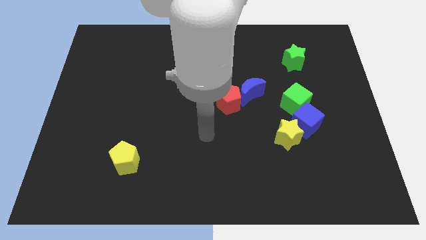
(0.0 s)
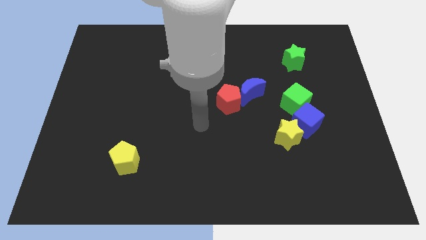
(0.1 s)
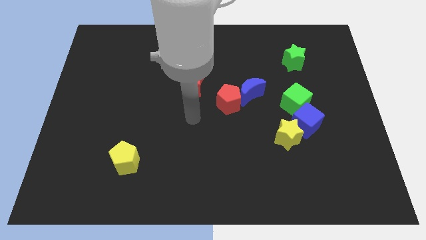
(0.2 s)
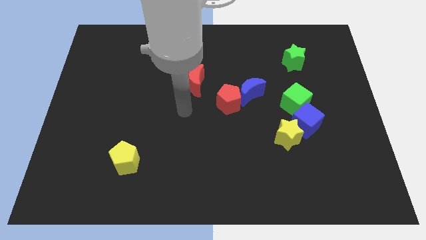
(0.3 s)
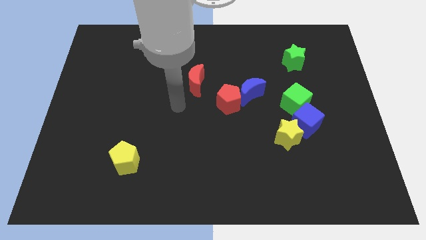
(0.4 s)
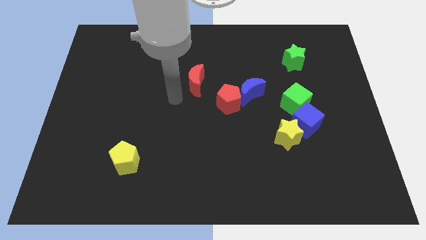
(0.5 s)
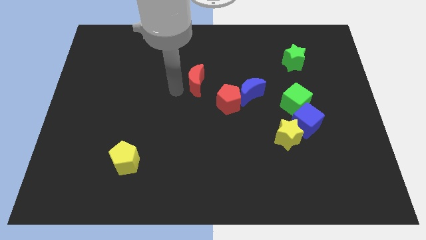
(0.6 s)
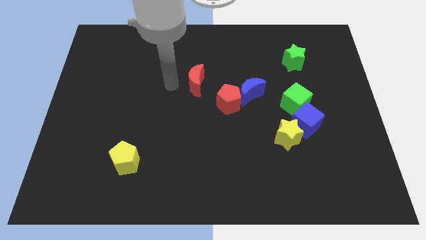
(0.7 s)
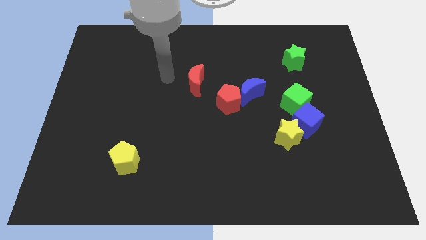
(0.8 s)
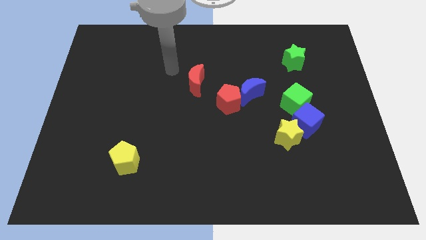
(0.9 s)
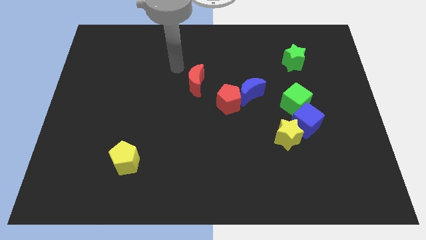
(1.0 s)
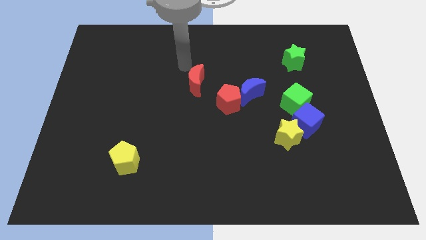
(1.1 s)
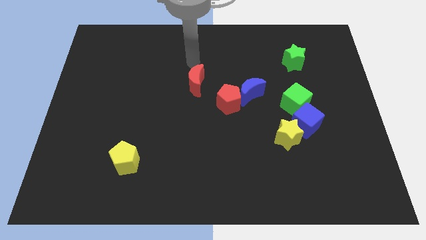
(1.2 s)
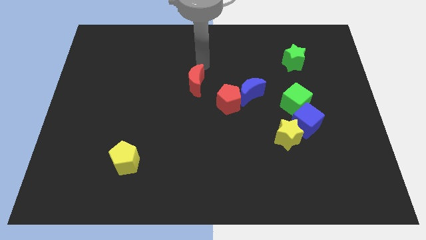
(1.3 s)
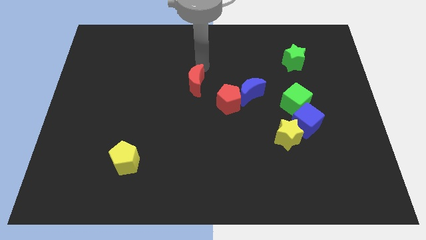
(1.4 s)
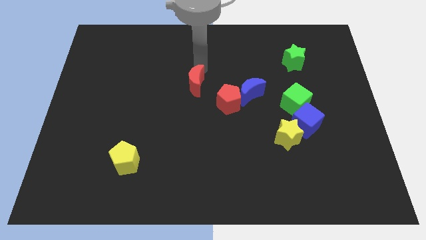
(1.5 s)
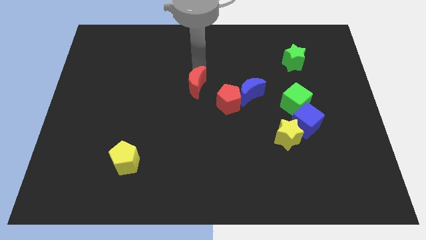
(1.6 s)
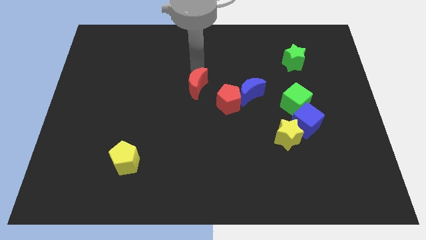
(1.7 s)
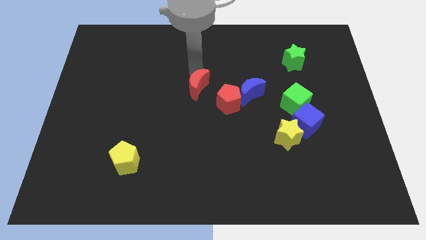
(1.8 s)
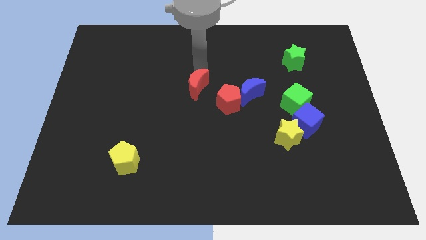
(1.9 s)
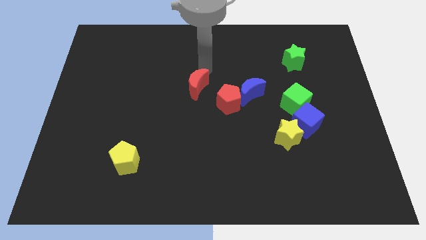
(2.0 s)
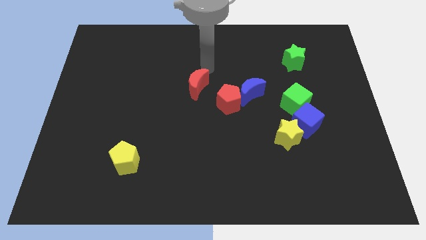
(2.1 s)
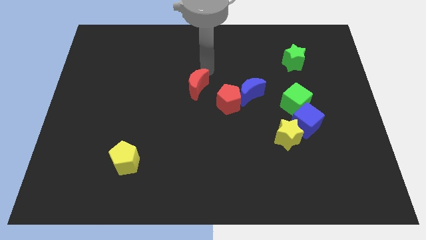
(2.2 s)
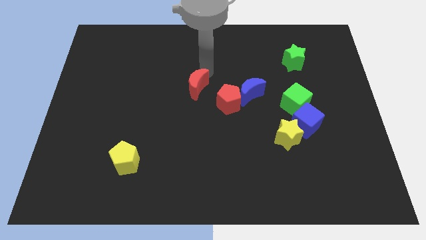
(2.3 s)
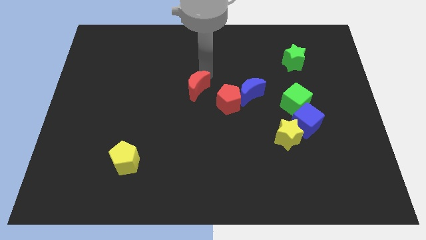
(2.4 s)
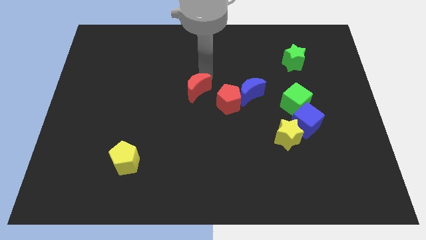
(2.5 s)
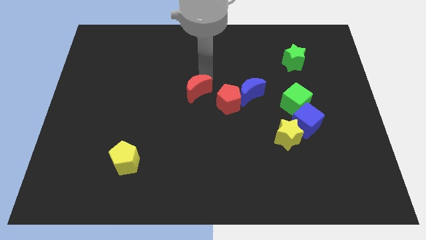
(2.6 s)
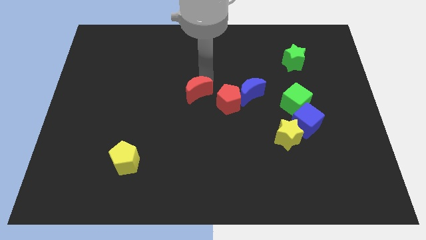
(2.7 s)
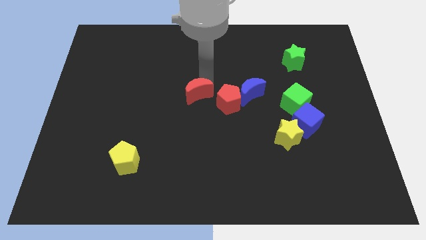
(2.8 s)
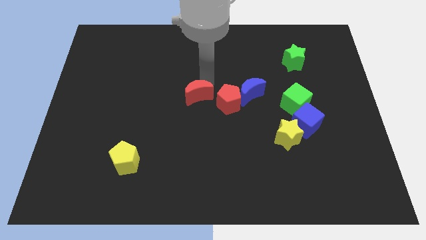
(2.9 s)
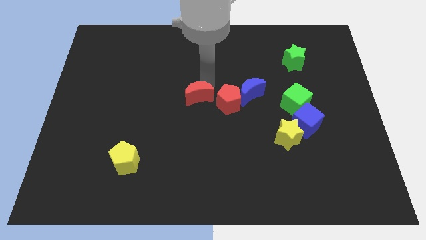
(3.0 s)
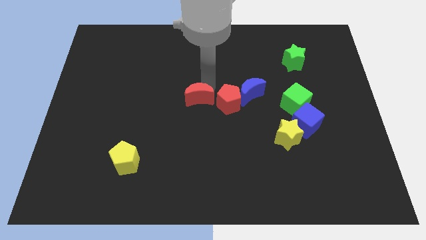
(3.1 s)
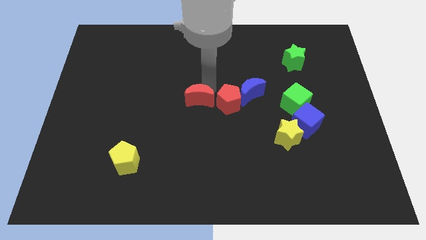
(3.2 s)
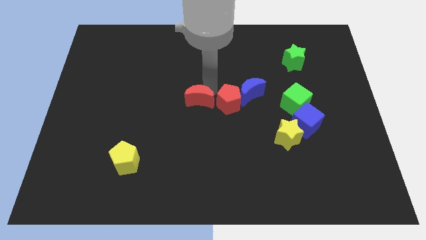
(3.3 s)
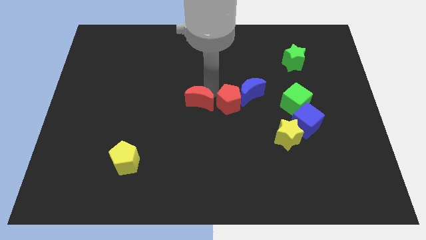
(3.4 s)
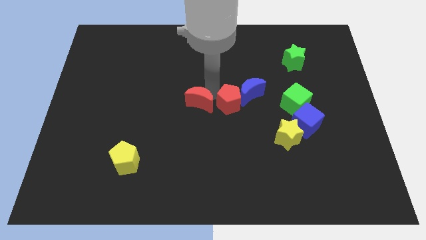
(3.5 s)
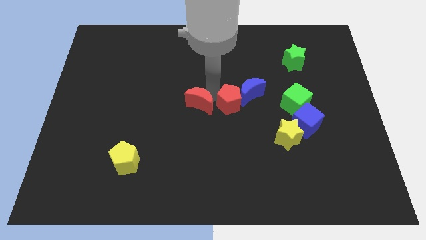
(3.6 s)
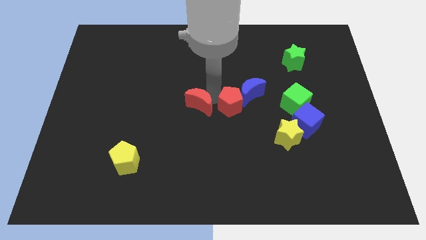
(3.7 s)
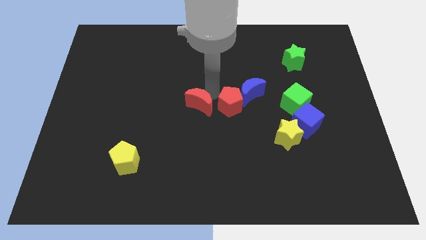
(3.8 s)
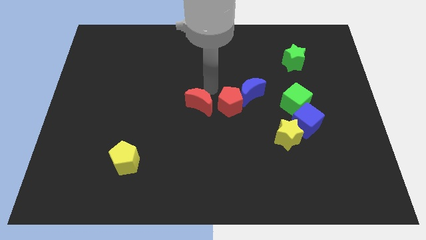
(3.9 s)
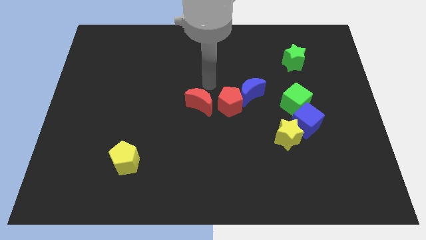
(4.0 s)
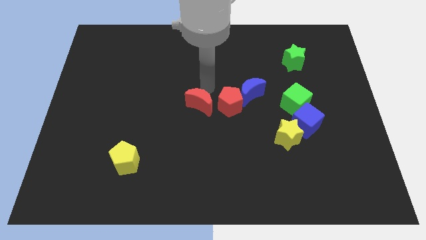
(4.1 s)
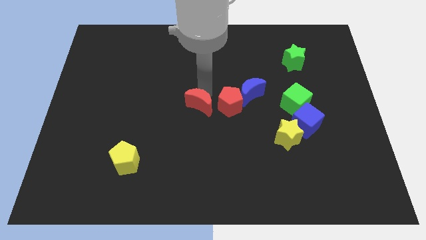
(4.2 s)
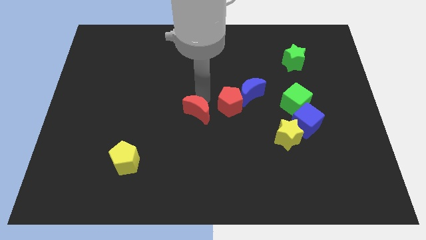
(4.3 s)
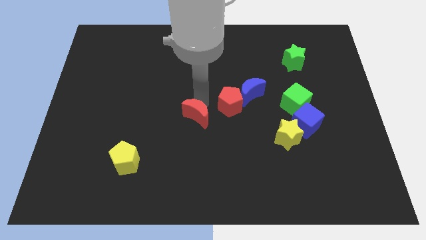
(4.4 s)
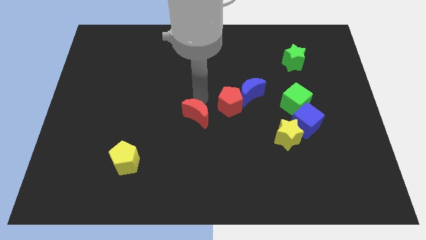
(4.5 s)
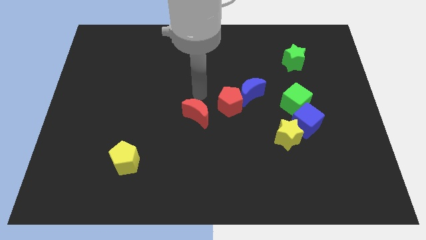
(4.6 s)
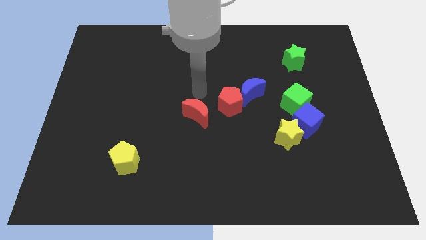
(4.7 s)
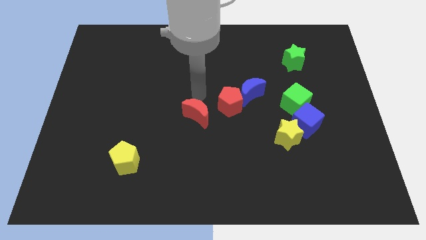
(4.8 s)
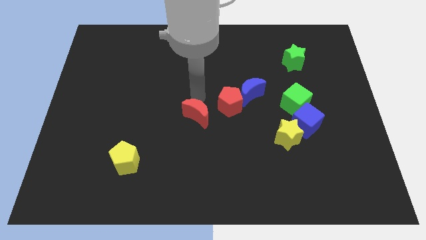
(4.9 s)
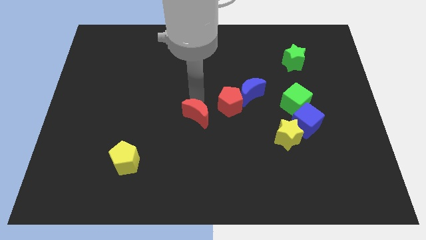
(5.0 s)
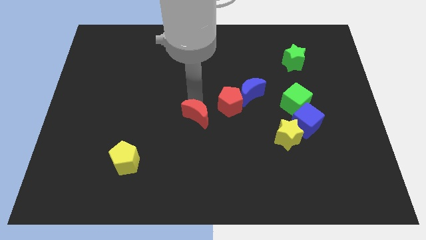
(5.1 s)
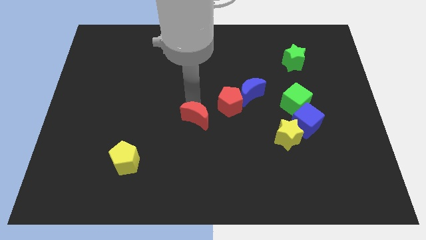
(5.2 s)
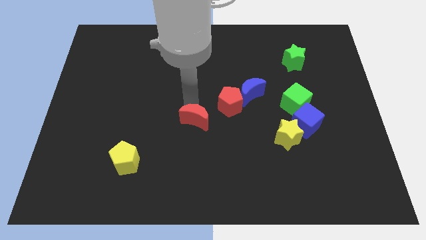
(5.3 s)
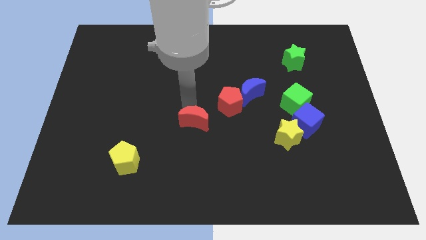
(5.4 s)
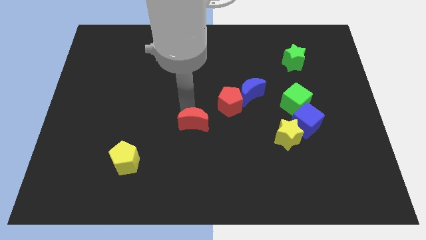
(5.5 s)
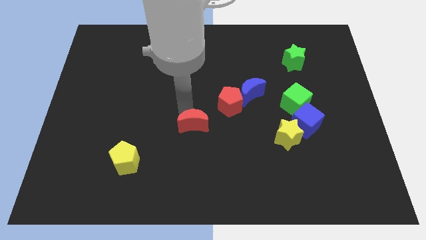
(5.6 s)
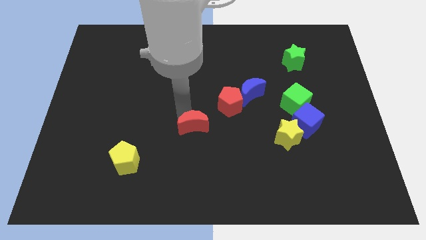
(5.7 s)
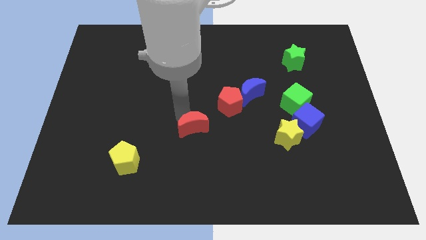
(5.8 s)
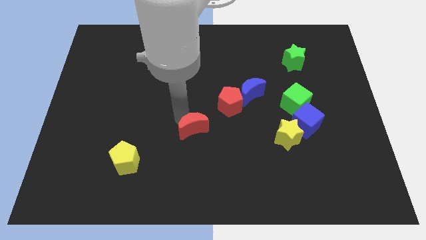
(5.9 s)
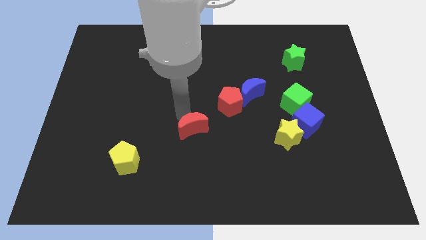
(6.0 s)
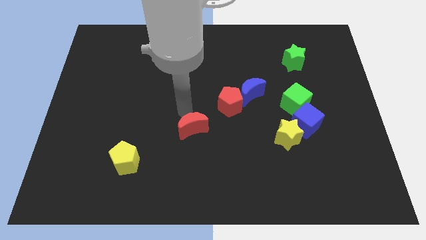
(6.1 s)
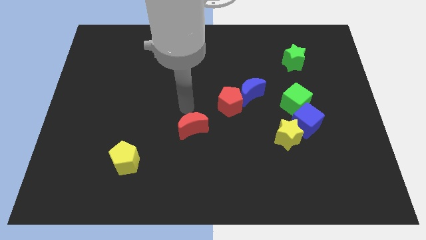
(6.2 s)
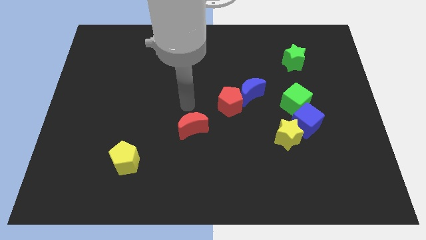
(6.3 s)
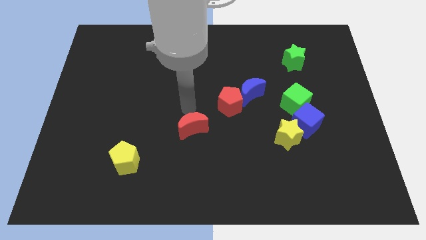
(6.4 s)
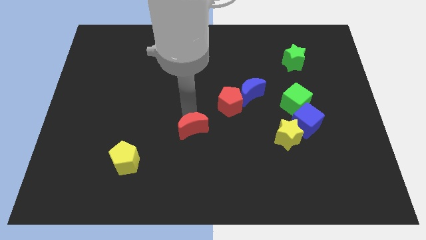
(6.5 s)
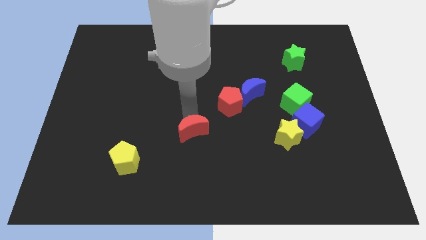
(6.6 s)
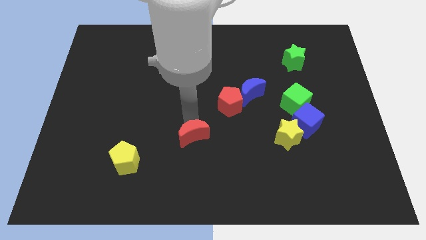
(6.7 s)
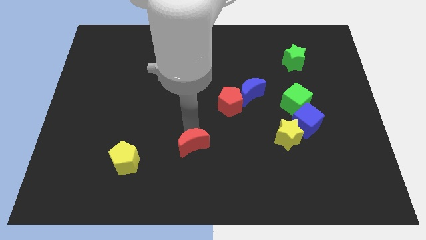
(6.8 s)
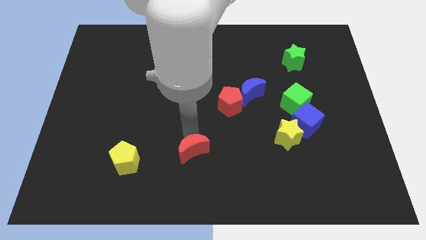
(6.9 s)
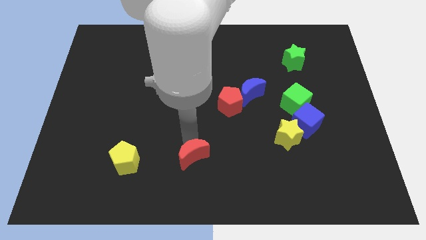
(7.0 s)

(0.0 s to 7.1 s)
slide the red moon to the bottom side
